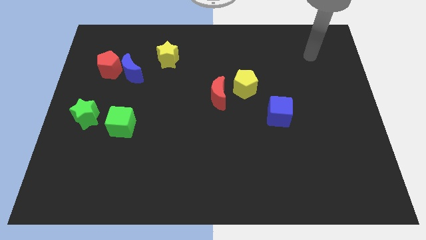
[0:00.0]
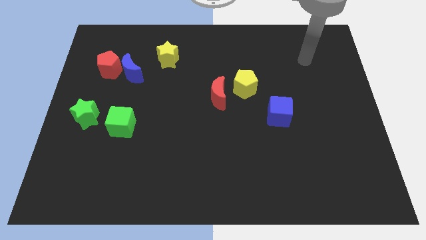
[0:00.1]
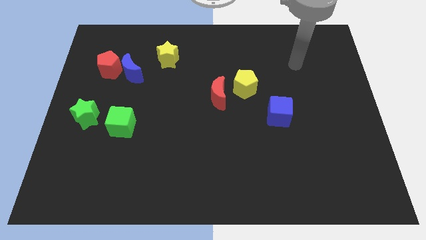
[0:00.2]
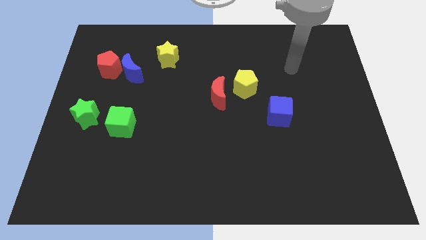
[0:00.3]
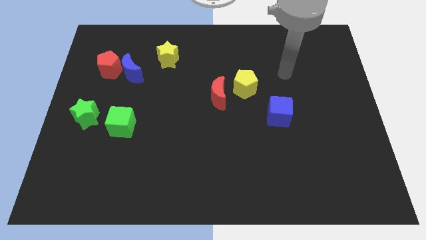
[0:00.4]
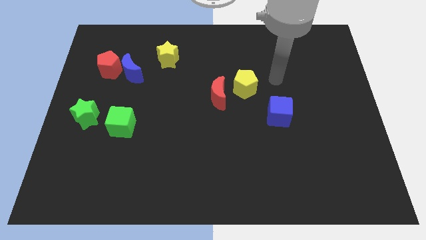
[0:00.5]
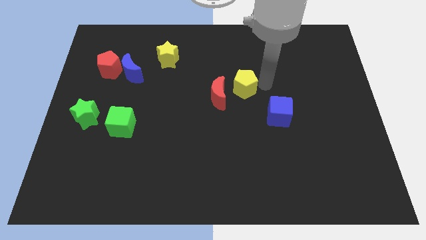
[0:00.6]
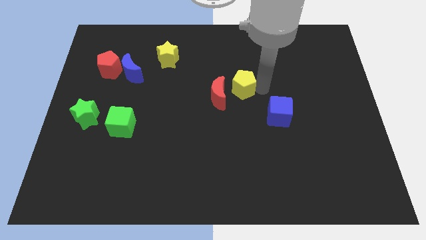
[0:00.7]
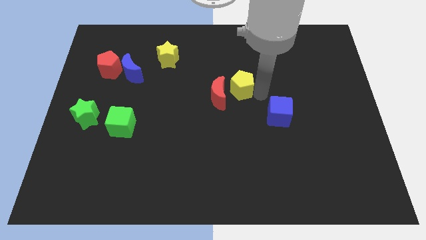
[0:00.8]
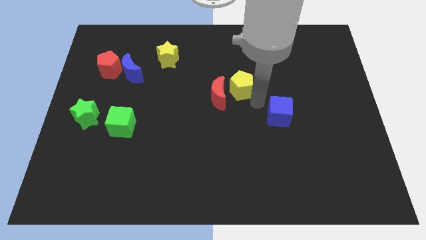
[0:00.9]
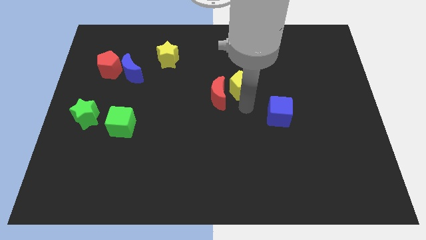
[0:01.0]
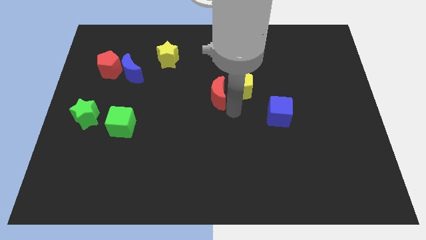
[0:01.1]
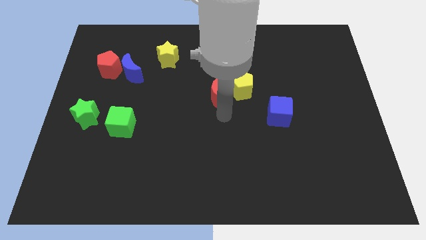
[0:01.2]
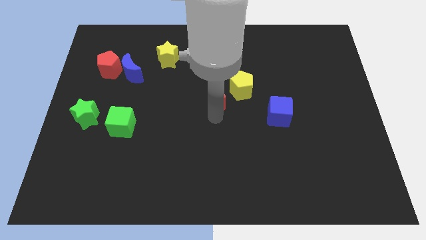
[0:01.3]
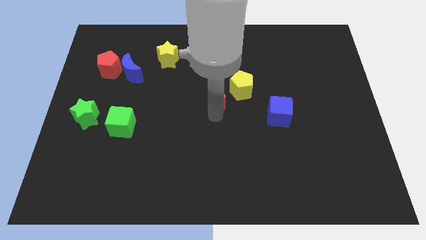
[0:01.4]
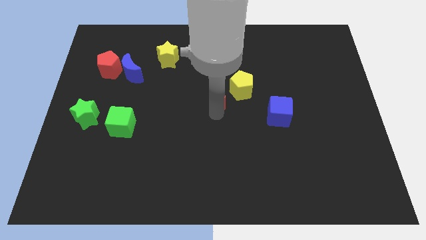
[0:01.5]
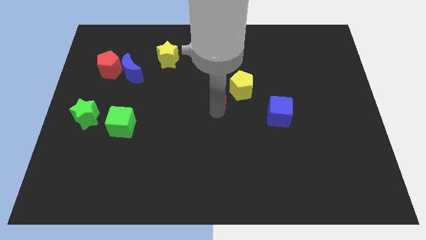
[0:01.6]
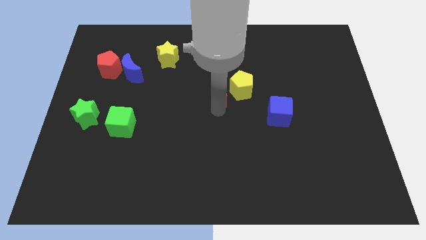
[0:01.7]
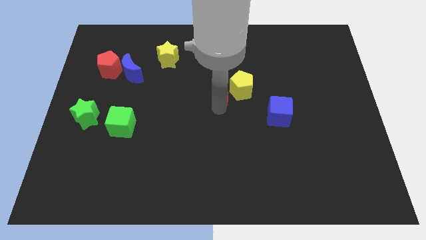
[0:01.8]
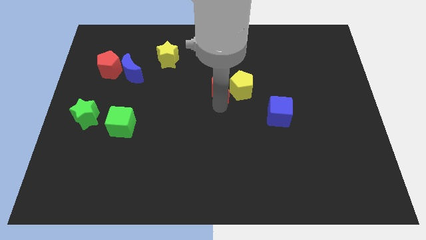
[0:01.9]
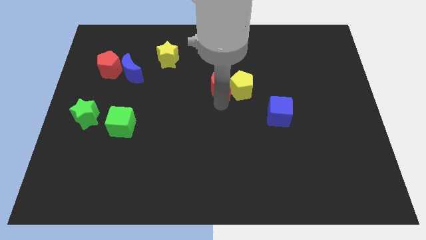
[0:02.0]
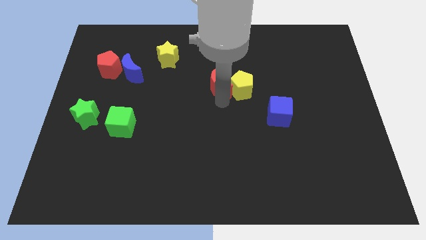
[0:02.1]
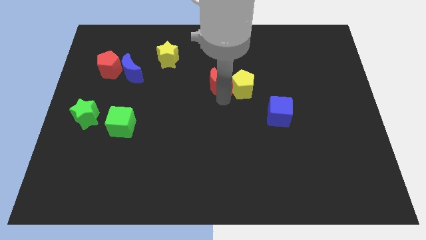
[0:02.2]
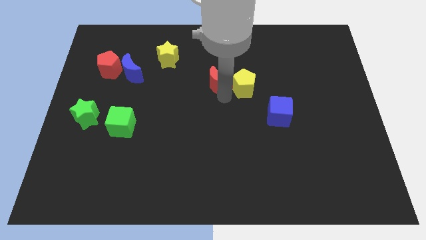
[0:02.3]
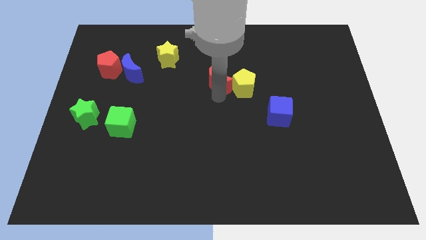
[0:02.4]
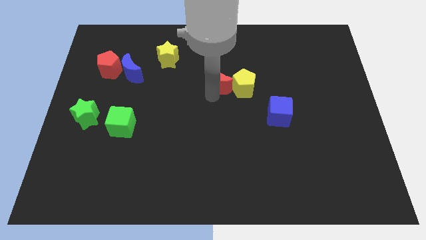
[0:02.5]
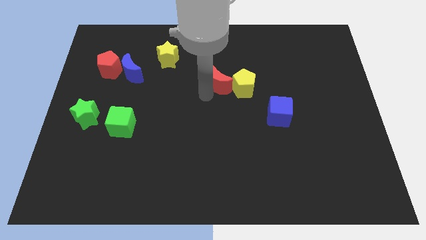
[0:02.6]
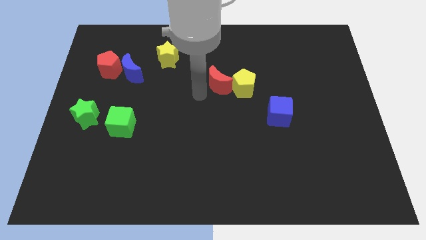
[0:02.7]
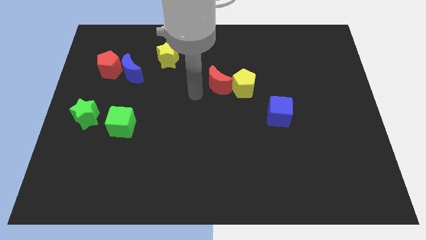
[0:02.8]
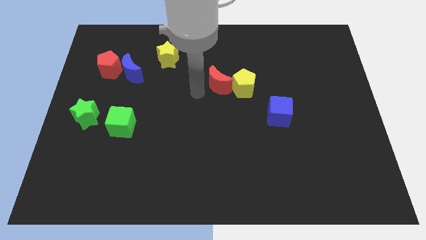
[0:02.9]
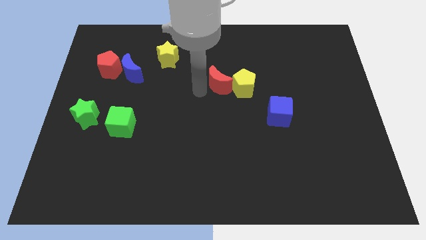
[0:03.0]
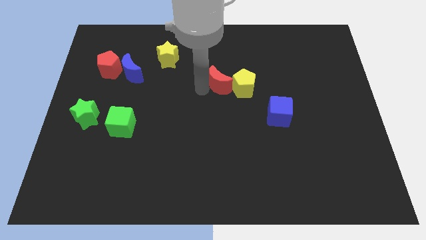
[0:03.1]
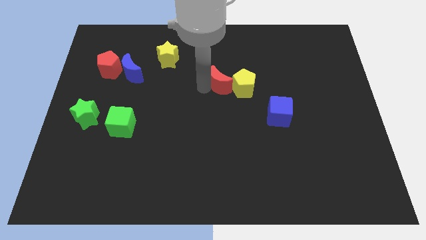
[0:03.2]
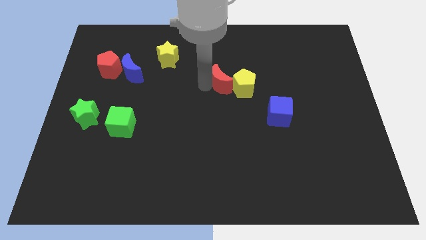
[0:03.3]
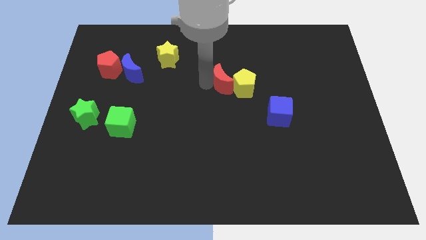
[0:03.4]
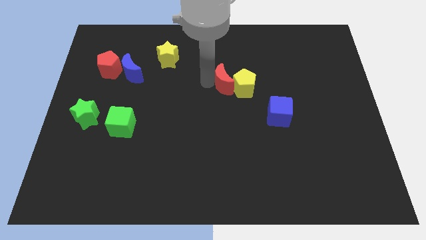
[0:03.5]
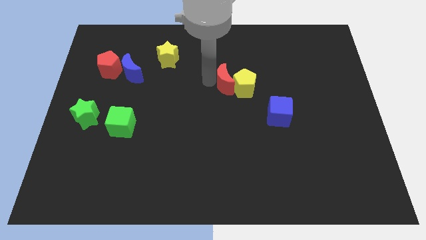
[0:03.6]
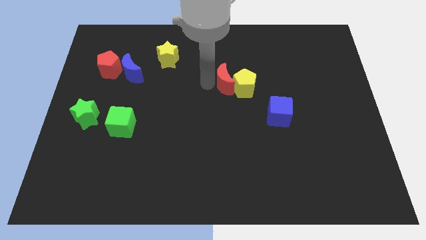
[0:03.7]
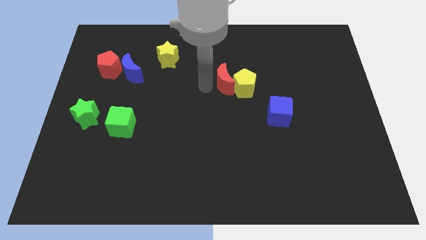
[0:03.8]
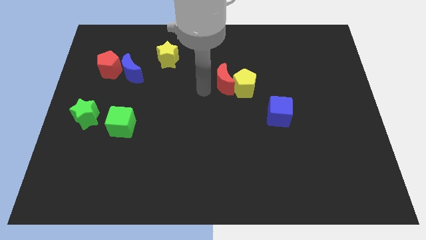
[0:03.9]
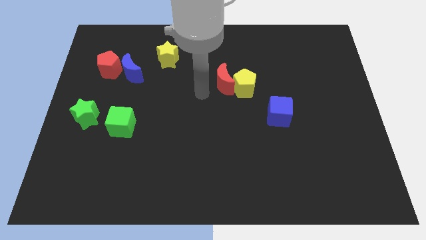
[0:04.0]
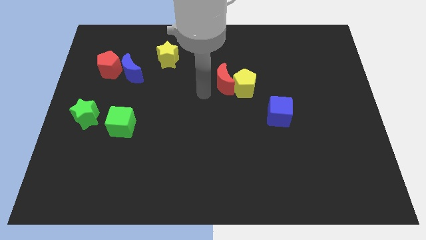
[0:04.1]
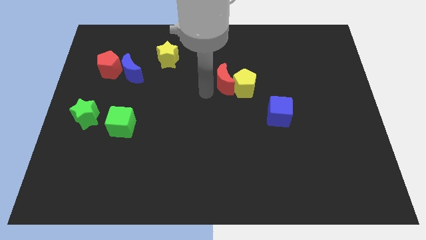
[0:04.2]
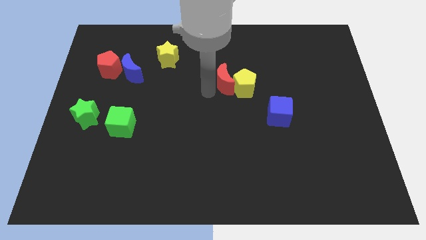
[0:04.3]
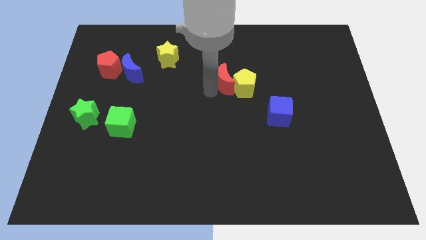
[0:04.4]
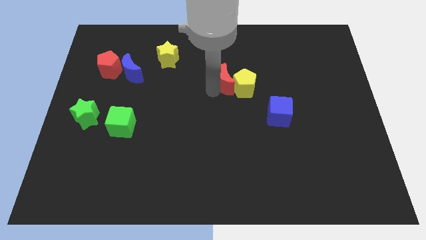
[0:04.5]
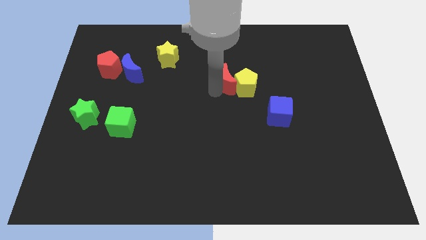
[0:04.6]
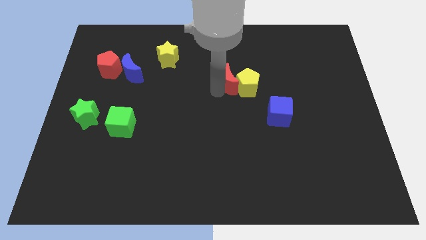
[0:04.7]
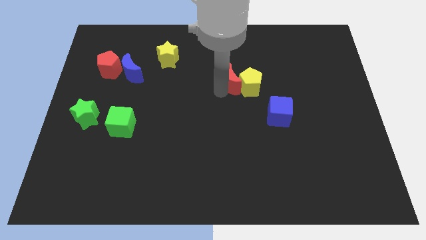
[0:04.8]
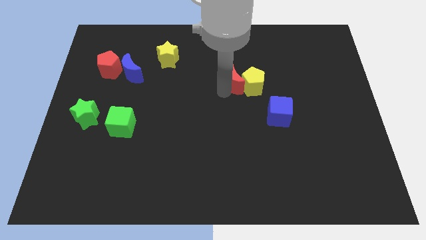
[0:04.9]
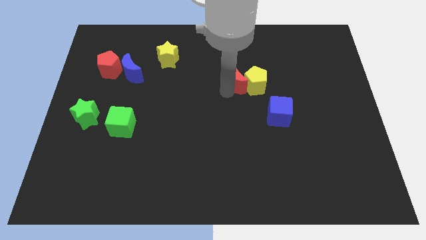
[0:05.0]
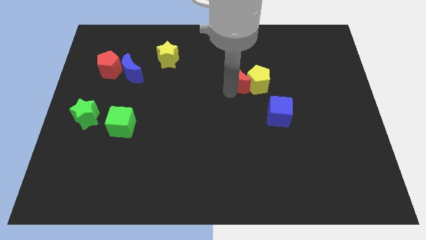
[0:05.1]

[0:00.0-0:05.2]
move the red moon upwards and then right somewhat

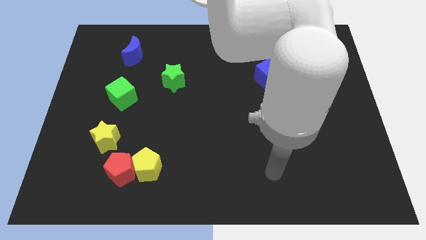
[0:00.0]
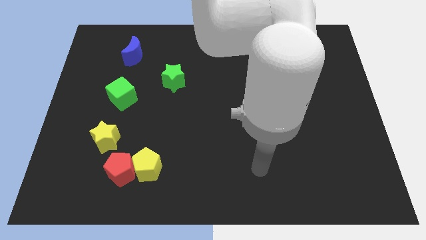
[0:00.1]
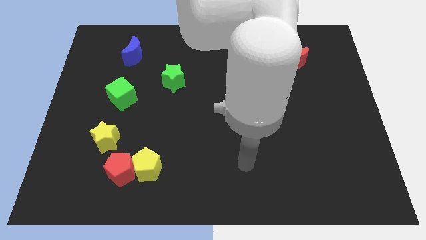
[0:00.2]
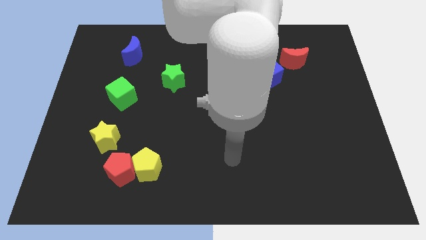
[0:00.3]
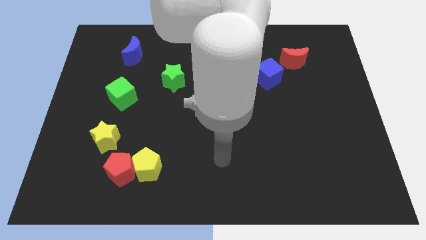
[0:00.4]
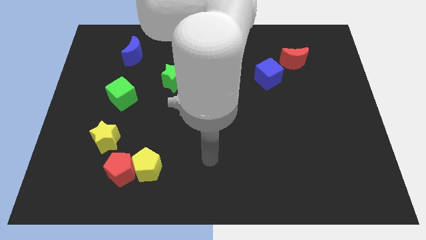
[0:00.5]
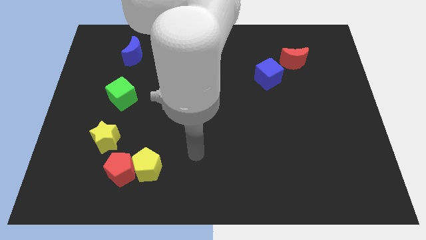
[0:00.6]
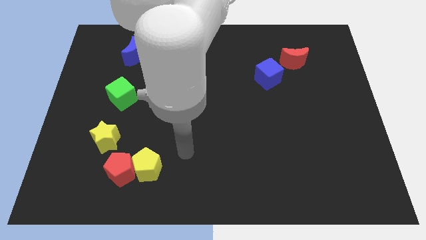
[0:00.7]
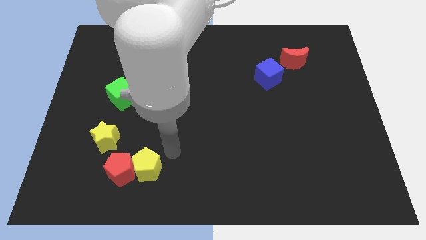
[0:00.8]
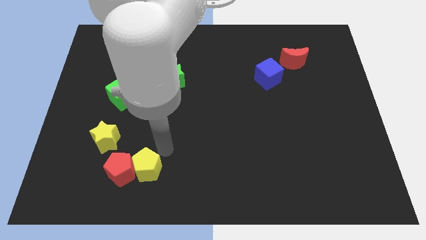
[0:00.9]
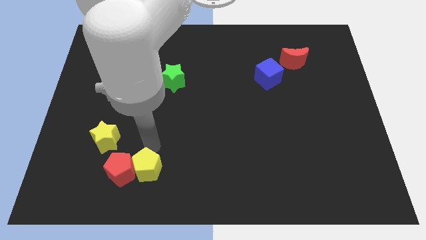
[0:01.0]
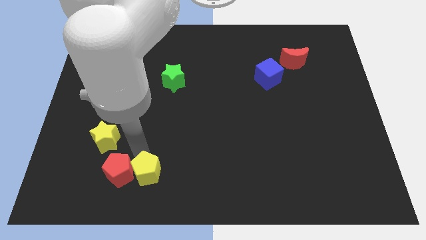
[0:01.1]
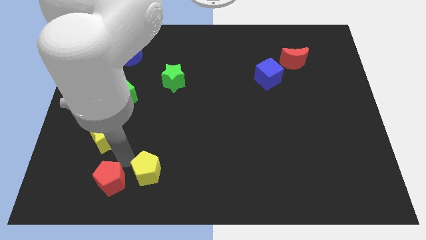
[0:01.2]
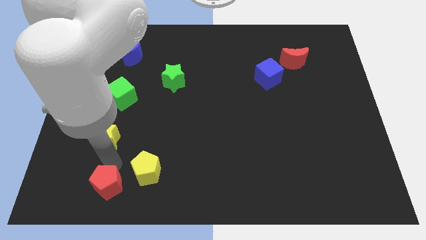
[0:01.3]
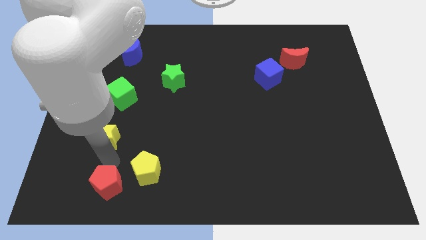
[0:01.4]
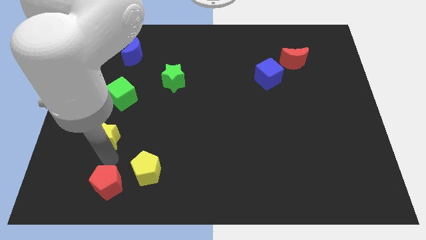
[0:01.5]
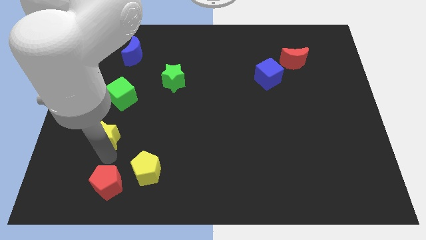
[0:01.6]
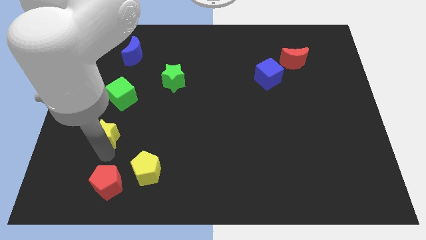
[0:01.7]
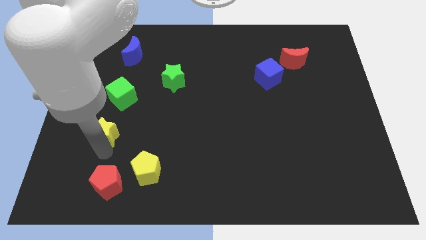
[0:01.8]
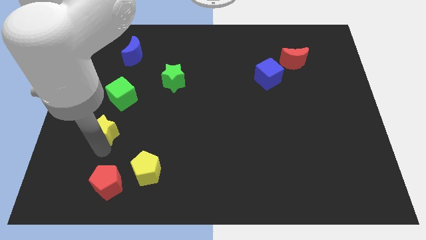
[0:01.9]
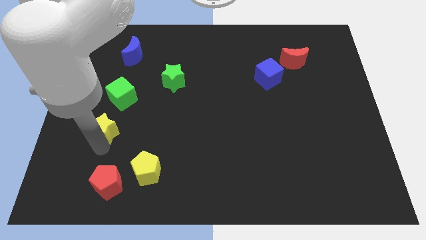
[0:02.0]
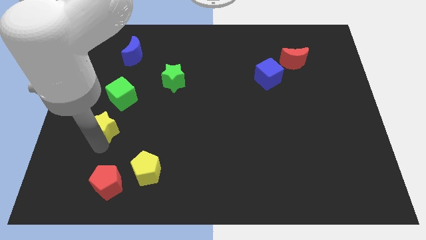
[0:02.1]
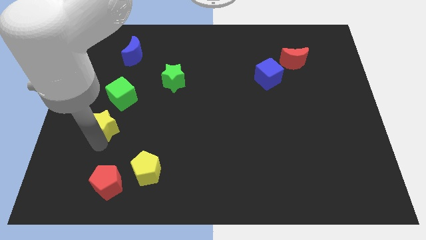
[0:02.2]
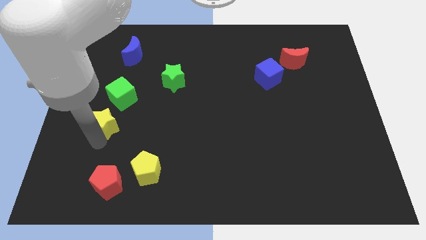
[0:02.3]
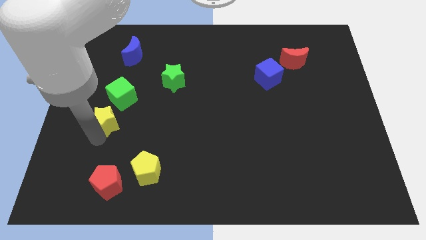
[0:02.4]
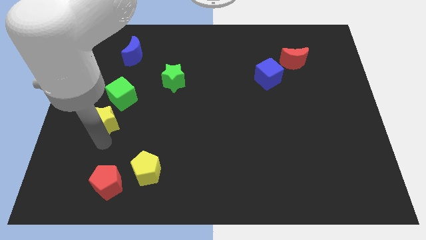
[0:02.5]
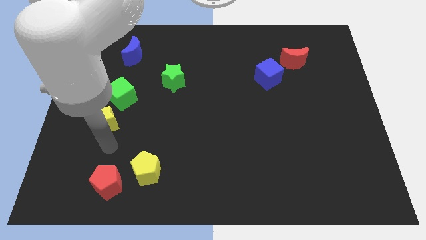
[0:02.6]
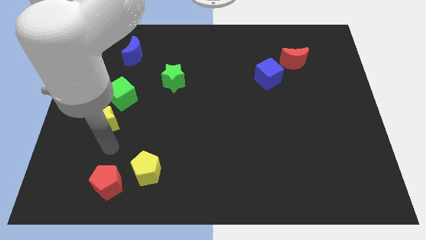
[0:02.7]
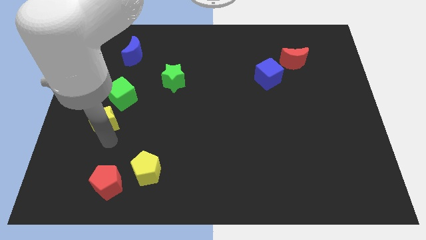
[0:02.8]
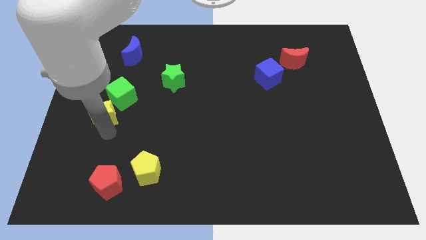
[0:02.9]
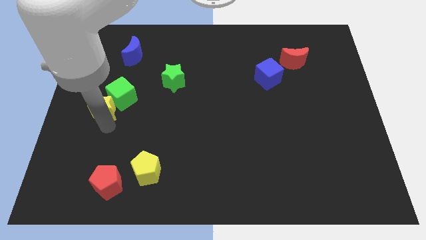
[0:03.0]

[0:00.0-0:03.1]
move the yellow star a bit upwards
